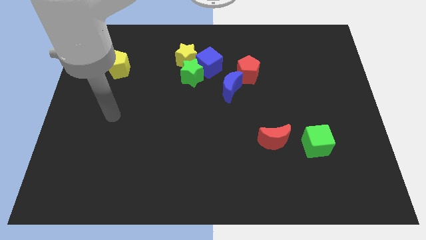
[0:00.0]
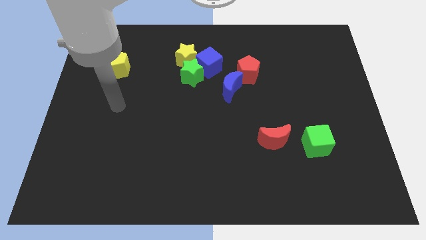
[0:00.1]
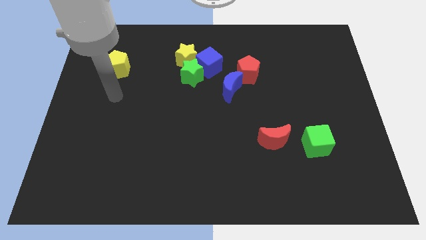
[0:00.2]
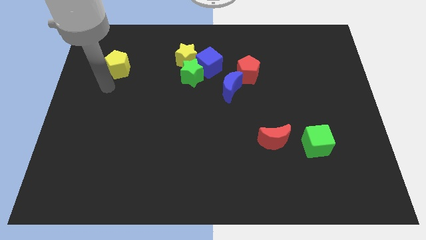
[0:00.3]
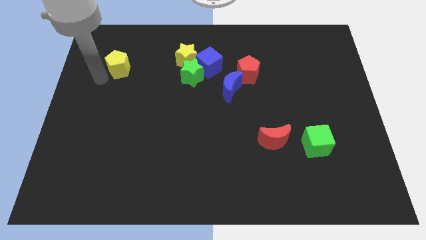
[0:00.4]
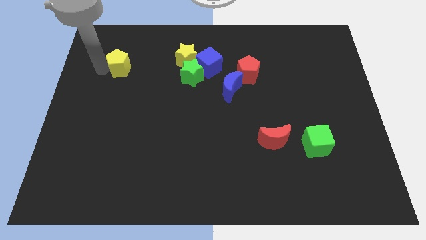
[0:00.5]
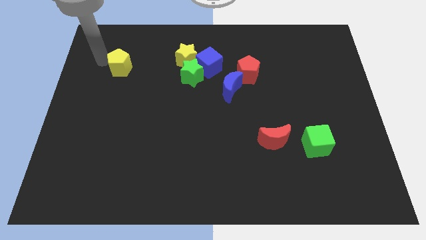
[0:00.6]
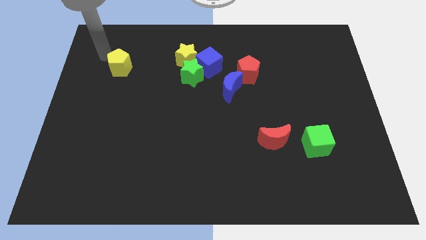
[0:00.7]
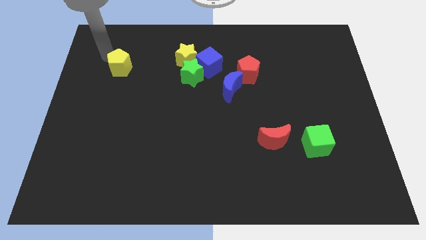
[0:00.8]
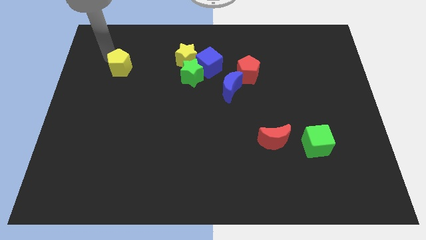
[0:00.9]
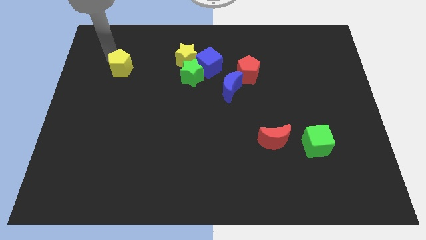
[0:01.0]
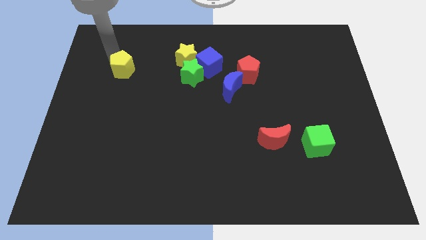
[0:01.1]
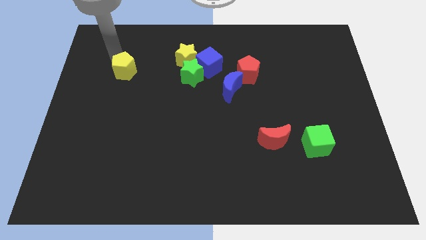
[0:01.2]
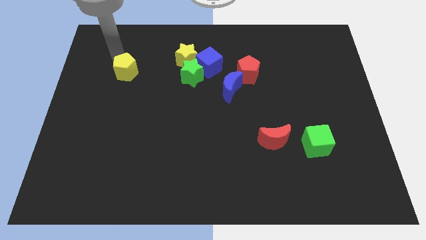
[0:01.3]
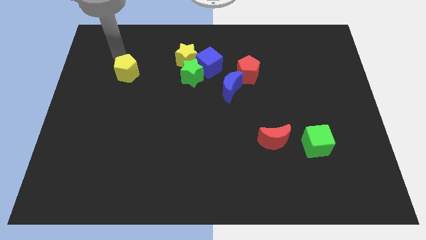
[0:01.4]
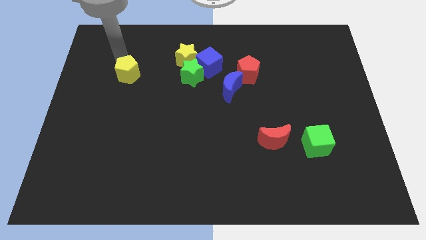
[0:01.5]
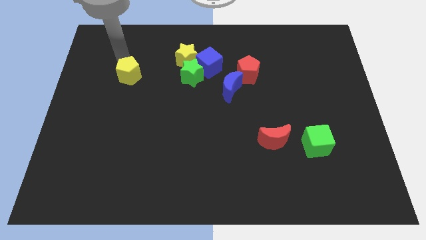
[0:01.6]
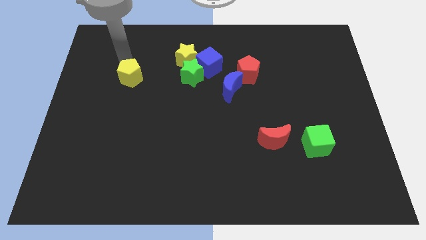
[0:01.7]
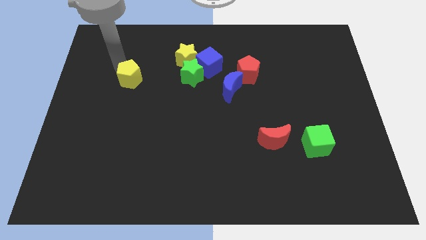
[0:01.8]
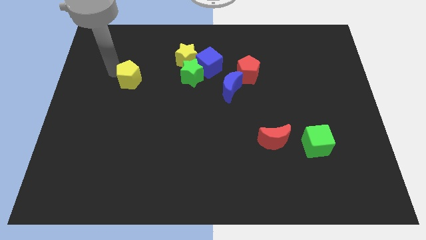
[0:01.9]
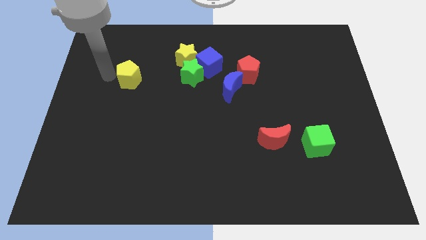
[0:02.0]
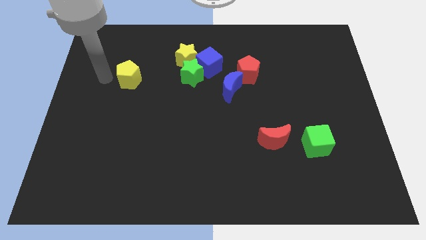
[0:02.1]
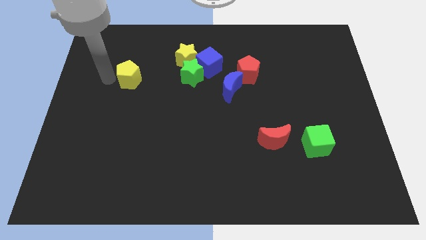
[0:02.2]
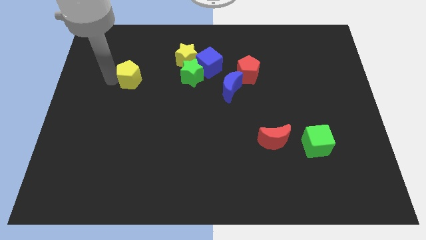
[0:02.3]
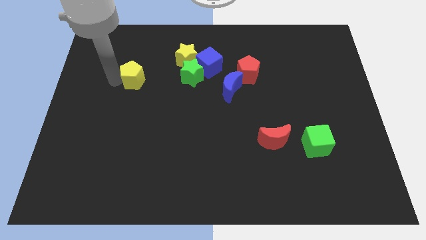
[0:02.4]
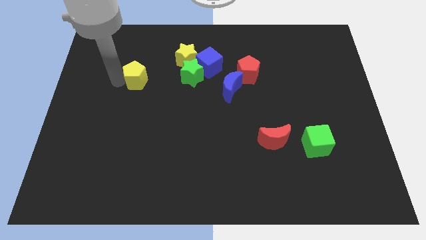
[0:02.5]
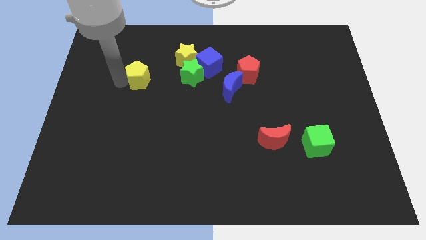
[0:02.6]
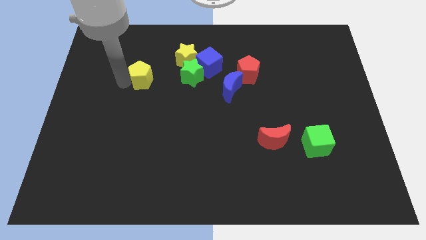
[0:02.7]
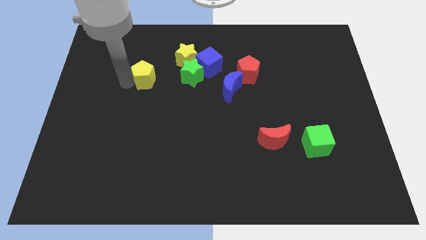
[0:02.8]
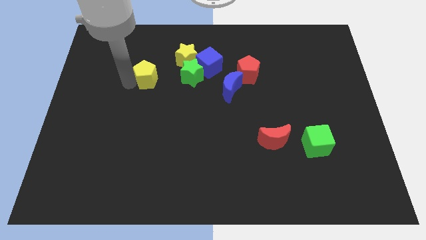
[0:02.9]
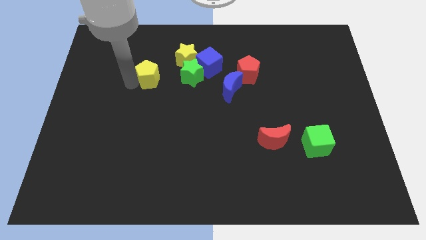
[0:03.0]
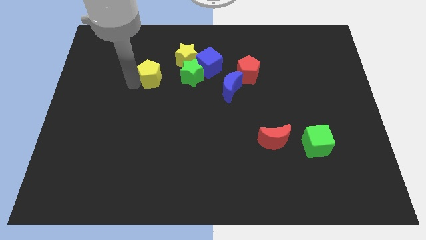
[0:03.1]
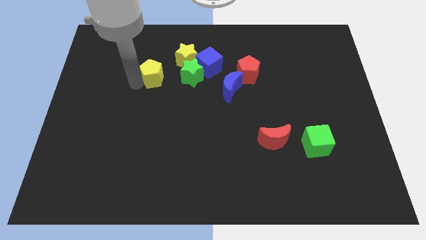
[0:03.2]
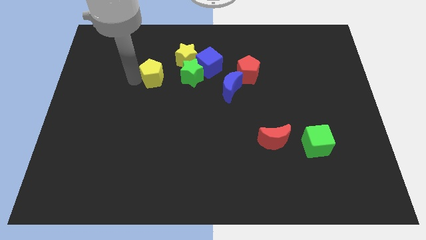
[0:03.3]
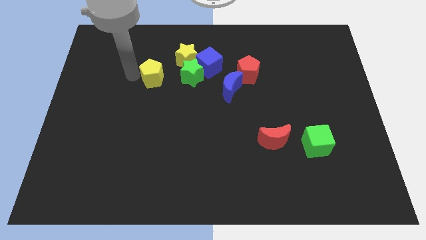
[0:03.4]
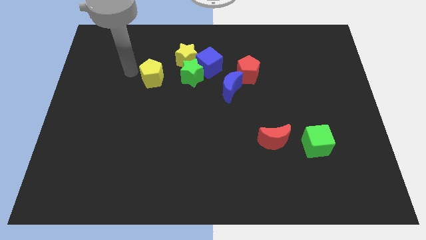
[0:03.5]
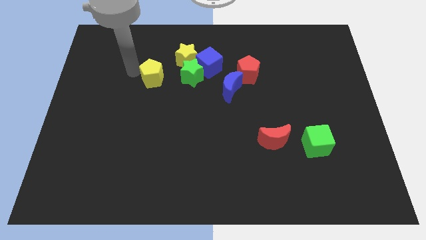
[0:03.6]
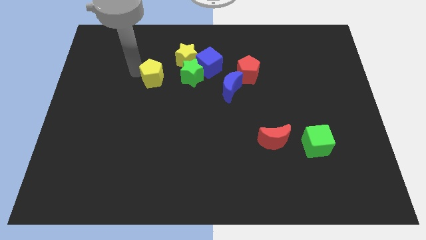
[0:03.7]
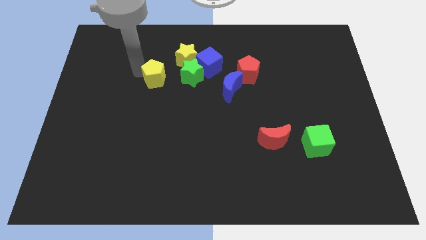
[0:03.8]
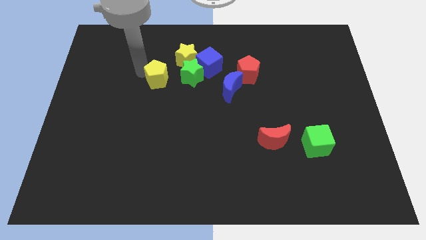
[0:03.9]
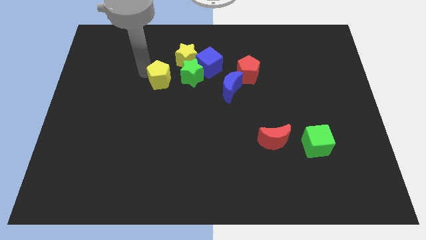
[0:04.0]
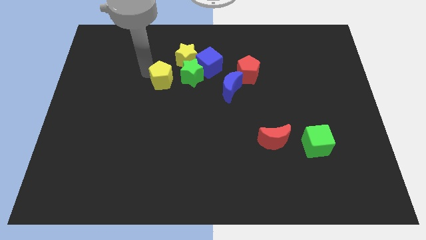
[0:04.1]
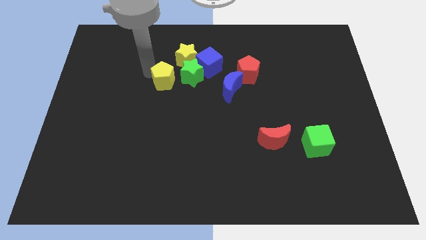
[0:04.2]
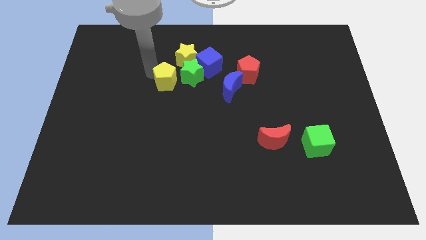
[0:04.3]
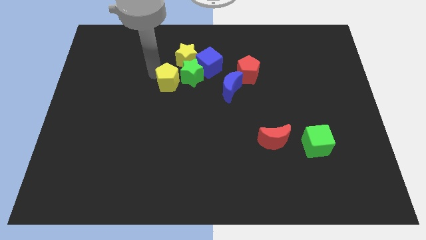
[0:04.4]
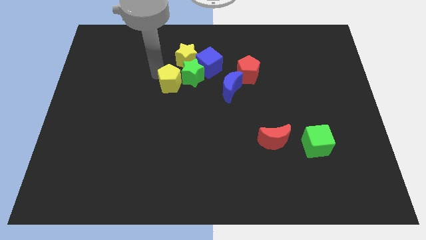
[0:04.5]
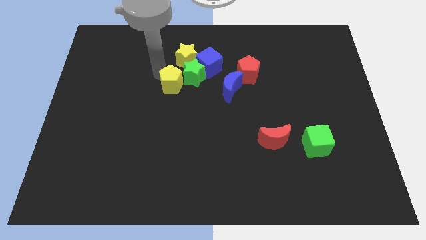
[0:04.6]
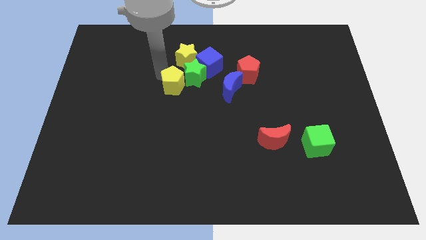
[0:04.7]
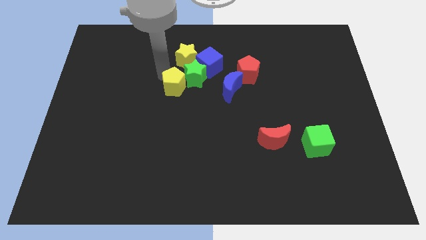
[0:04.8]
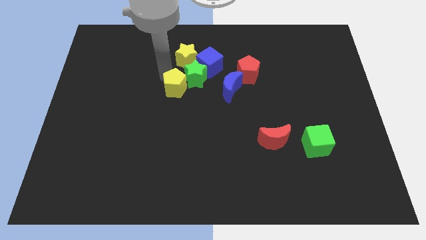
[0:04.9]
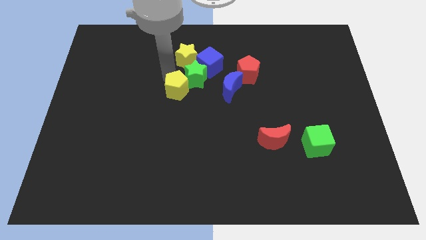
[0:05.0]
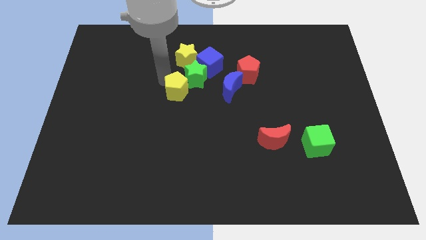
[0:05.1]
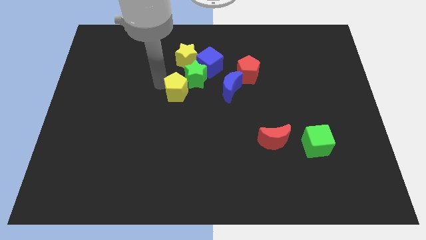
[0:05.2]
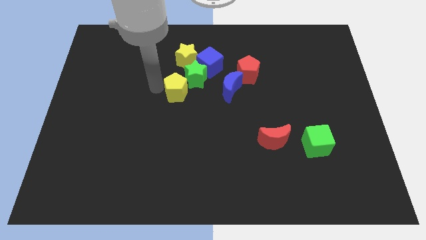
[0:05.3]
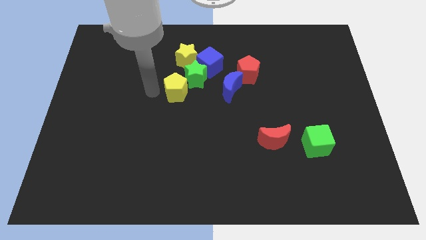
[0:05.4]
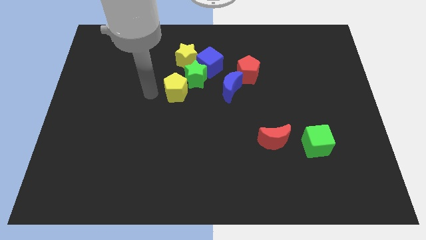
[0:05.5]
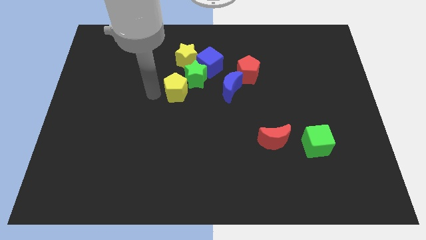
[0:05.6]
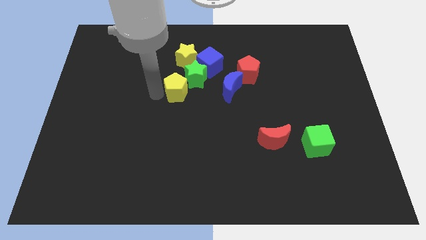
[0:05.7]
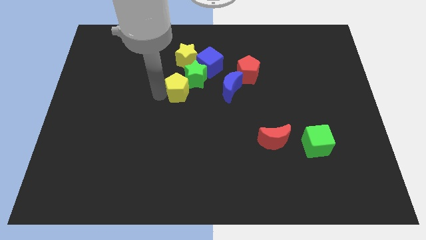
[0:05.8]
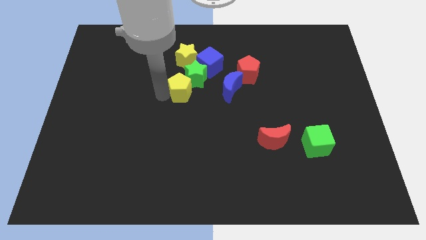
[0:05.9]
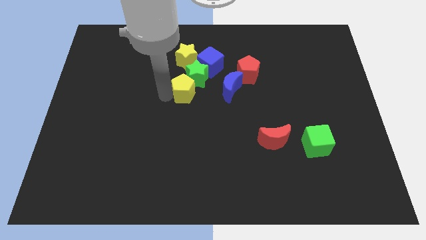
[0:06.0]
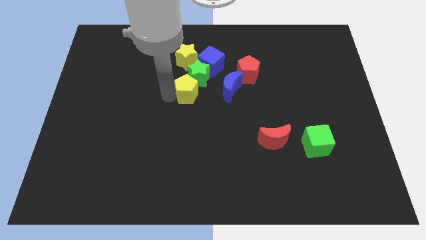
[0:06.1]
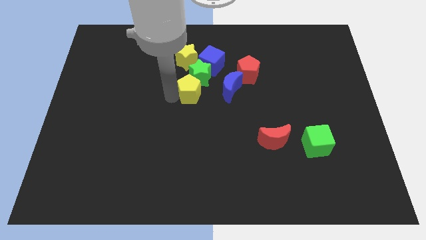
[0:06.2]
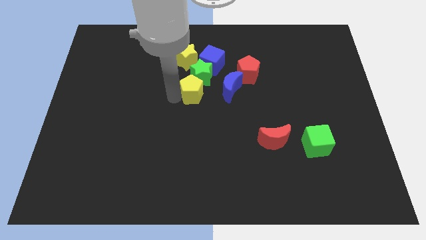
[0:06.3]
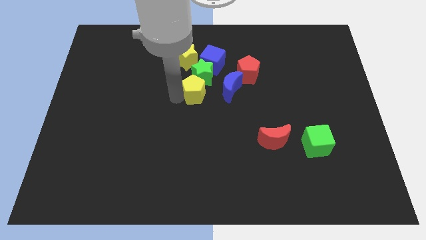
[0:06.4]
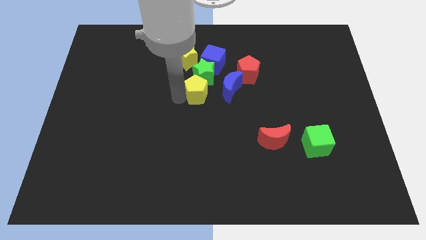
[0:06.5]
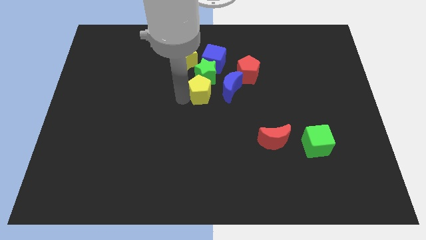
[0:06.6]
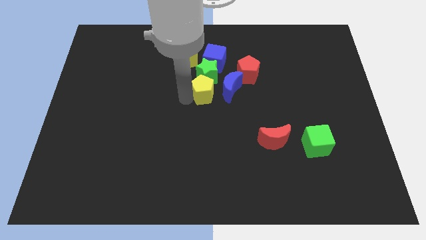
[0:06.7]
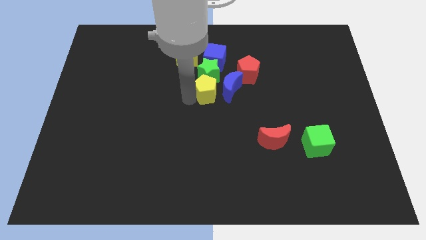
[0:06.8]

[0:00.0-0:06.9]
put the yellow pentagon towards the blue moon
